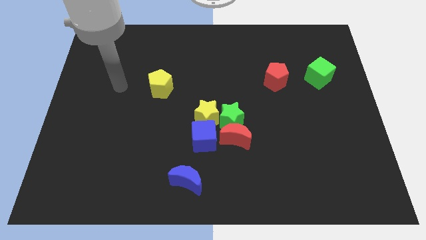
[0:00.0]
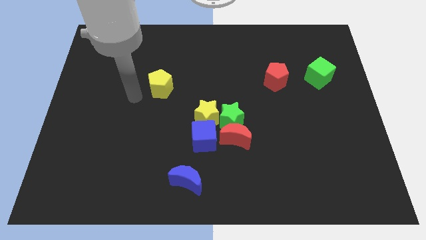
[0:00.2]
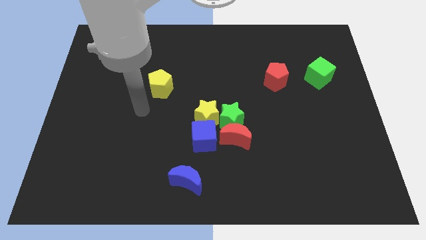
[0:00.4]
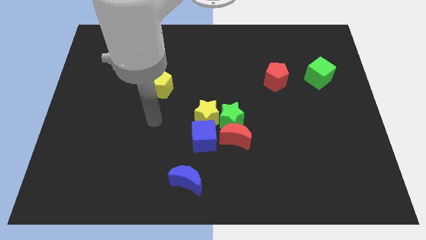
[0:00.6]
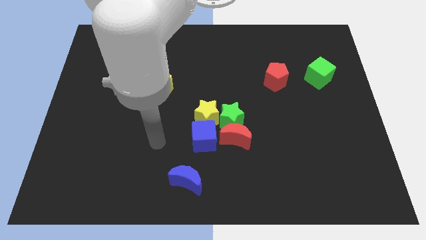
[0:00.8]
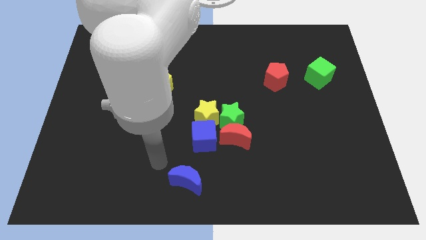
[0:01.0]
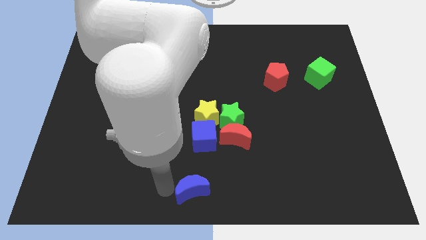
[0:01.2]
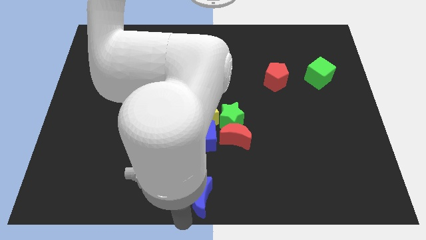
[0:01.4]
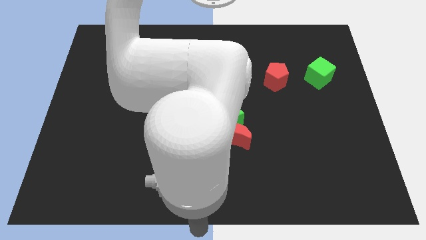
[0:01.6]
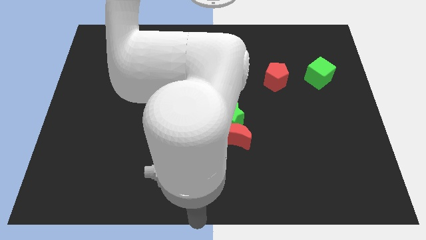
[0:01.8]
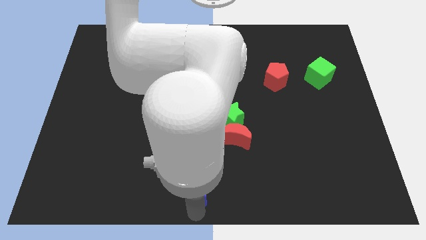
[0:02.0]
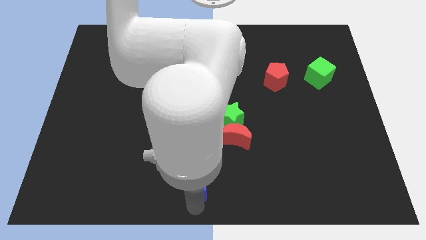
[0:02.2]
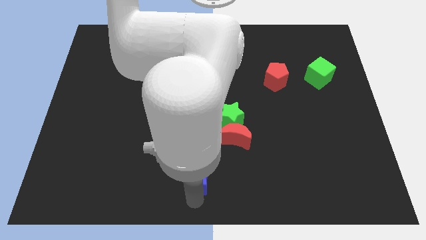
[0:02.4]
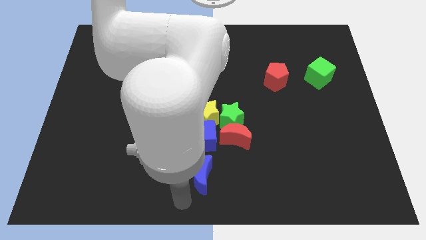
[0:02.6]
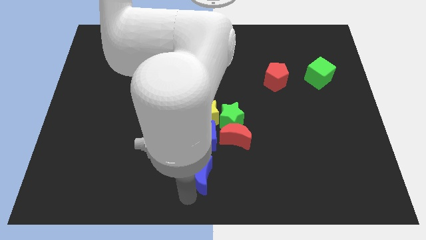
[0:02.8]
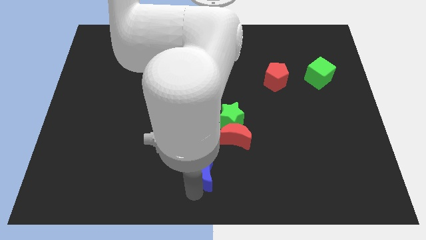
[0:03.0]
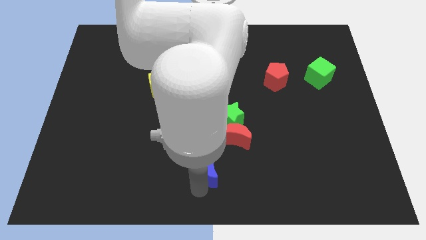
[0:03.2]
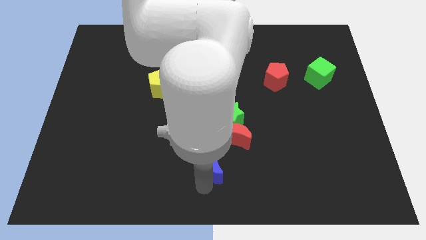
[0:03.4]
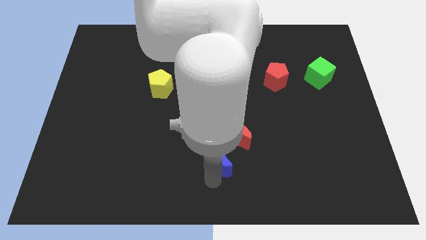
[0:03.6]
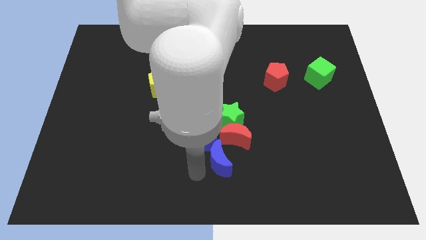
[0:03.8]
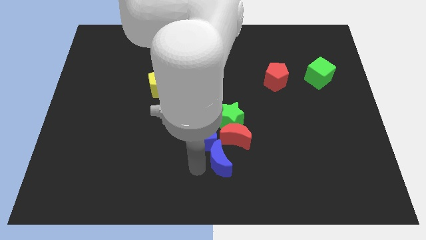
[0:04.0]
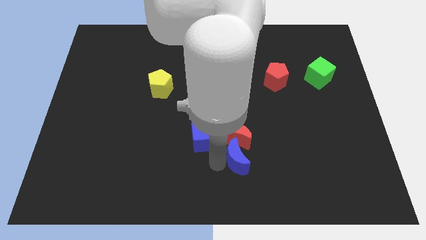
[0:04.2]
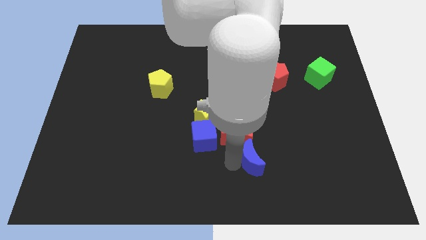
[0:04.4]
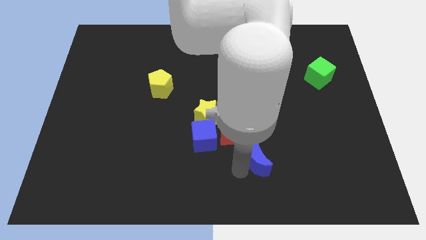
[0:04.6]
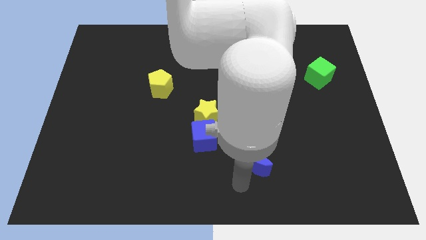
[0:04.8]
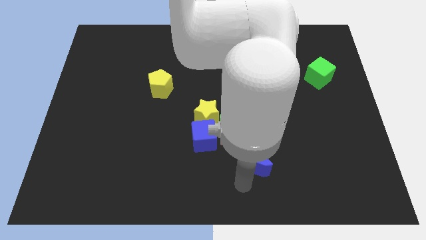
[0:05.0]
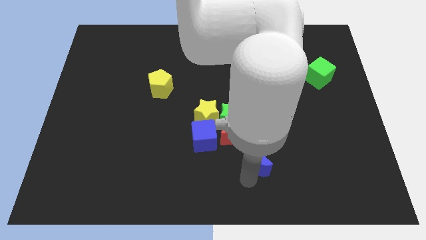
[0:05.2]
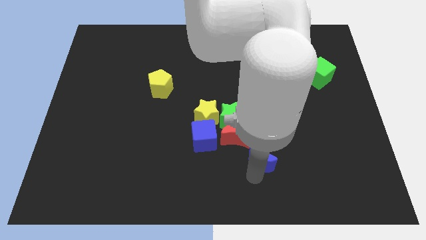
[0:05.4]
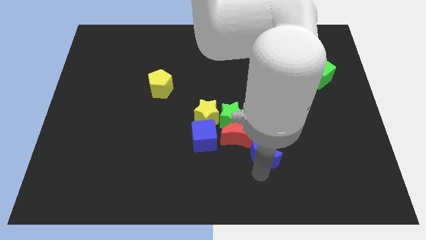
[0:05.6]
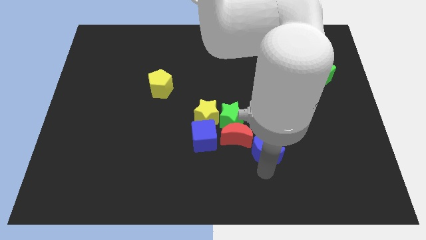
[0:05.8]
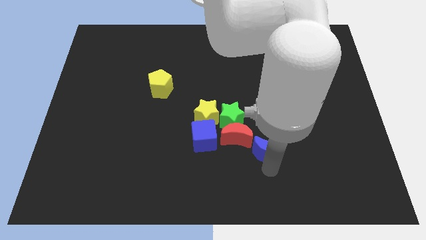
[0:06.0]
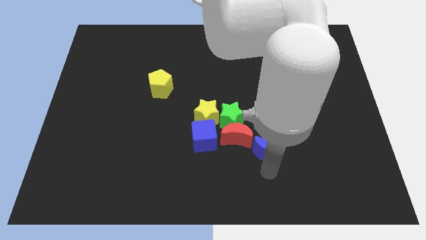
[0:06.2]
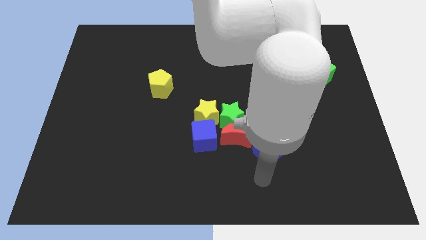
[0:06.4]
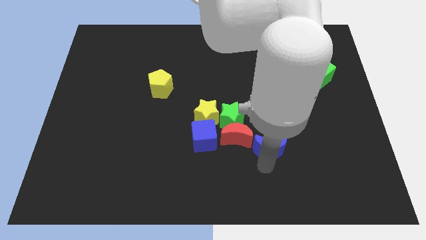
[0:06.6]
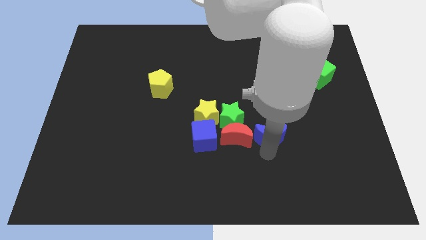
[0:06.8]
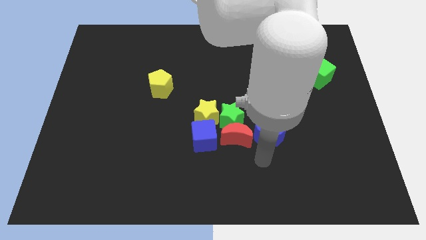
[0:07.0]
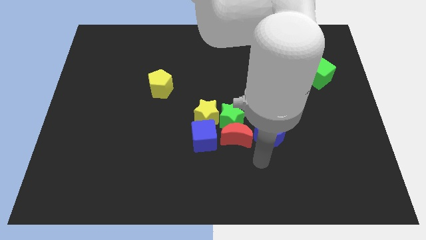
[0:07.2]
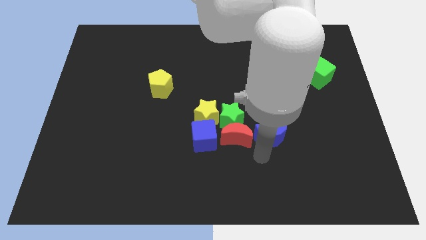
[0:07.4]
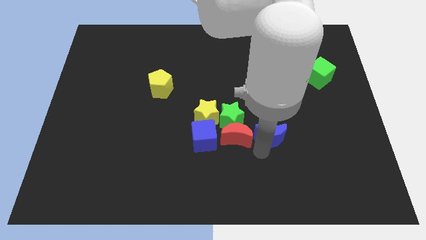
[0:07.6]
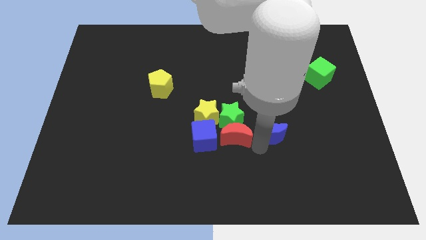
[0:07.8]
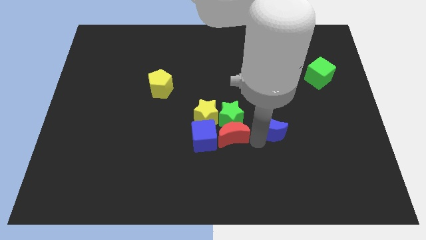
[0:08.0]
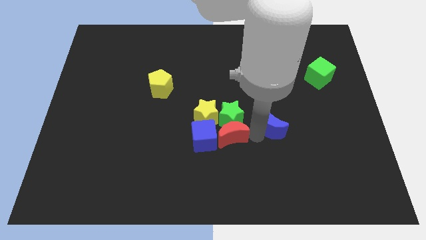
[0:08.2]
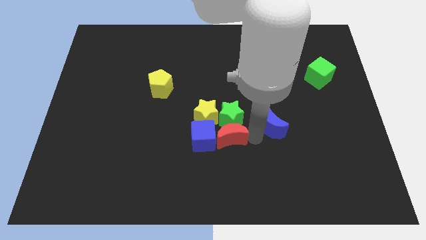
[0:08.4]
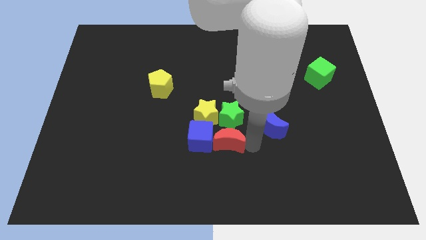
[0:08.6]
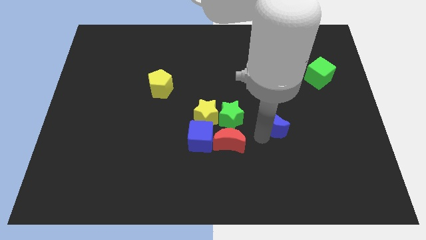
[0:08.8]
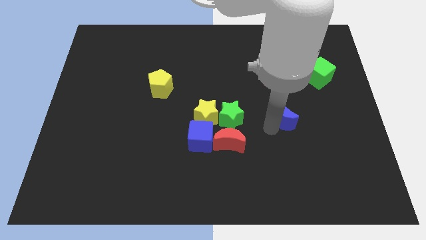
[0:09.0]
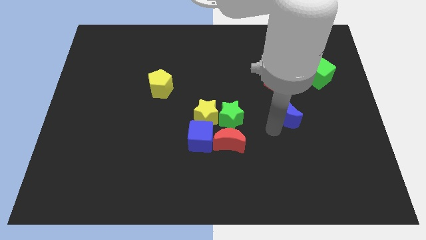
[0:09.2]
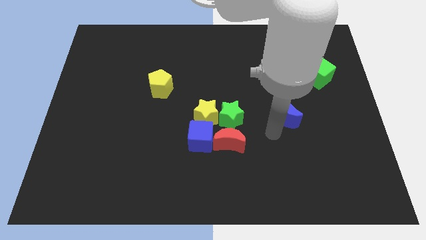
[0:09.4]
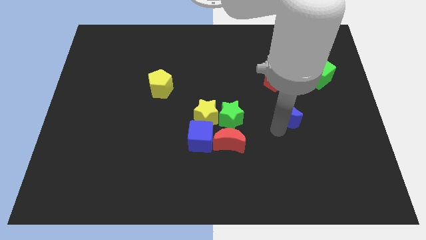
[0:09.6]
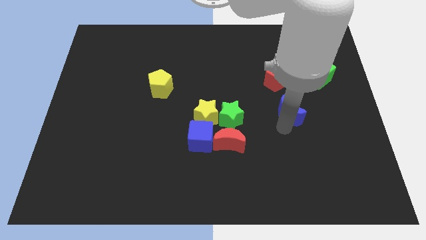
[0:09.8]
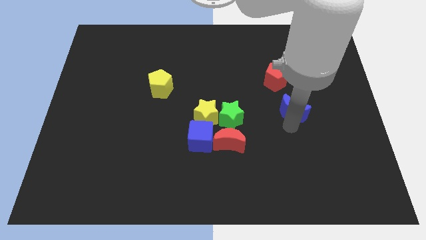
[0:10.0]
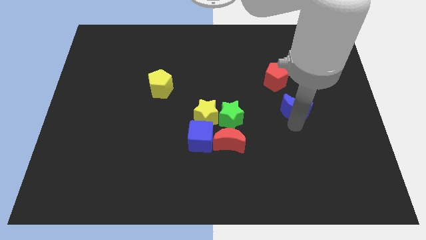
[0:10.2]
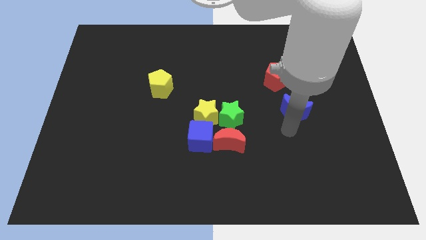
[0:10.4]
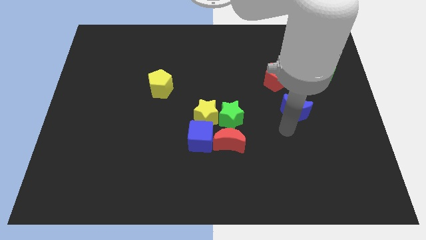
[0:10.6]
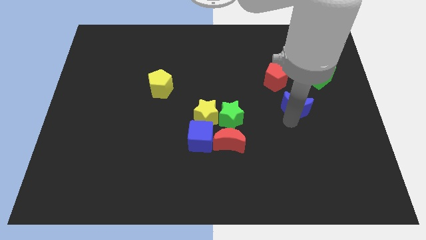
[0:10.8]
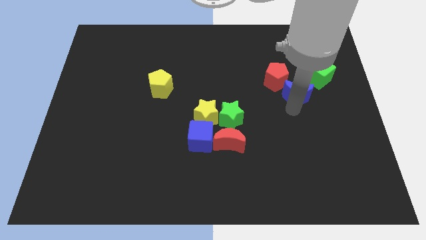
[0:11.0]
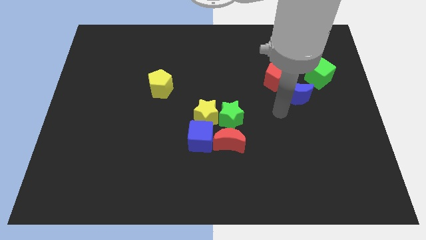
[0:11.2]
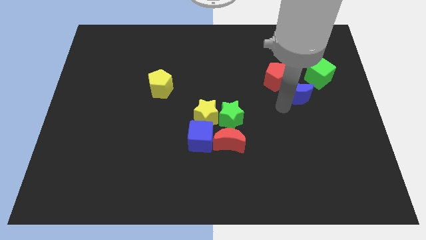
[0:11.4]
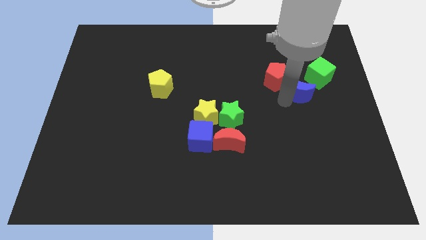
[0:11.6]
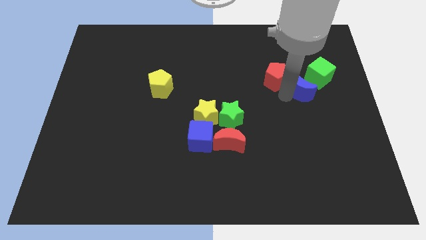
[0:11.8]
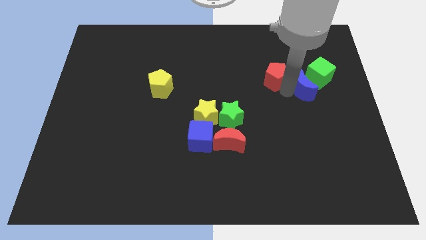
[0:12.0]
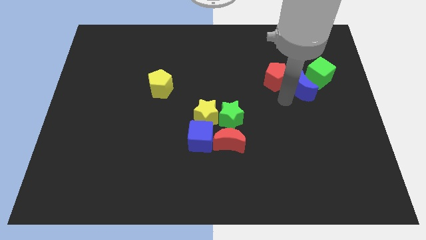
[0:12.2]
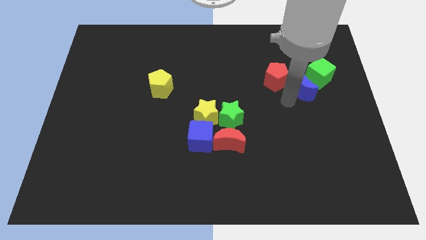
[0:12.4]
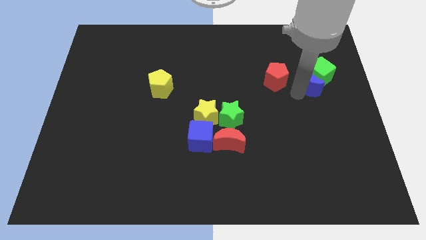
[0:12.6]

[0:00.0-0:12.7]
slide the blue moon next to the green cube

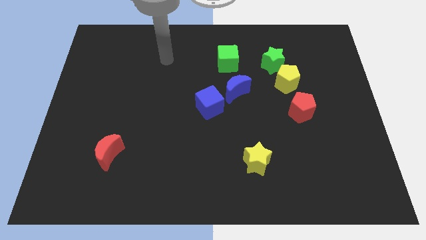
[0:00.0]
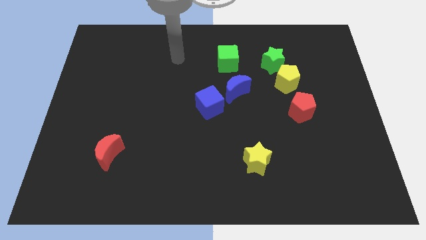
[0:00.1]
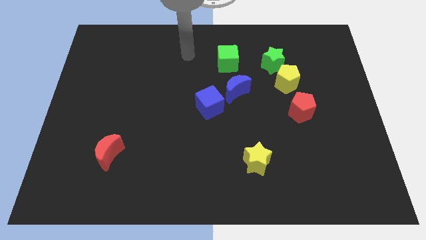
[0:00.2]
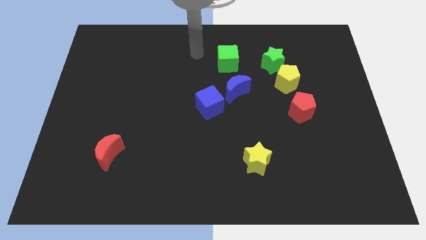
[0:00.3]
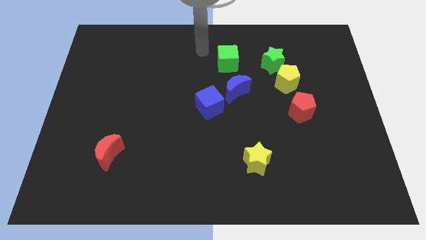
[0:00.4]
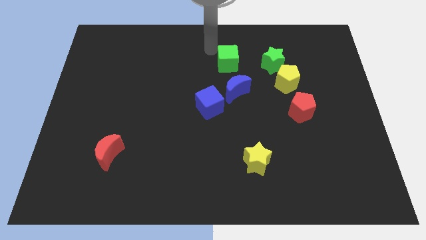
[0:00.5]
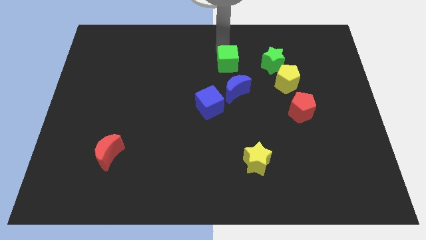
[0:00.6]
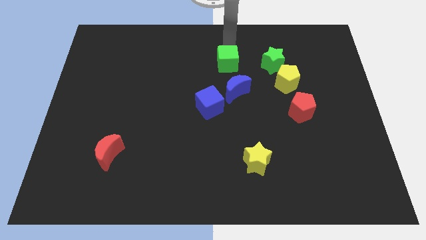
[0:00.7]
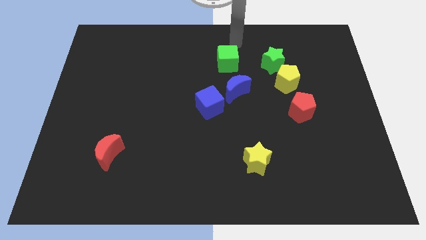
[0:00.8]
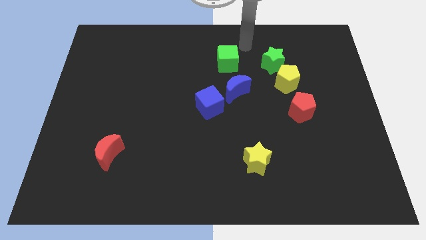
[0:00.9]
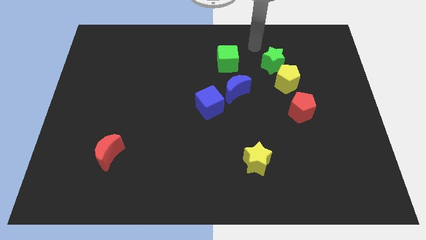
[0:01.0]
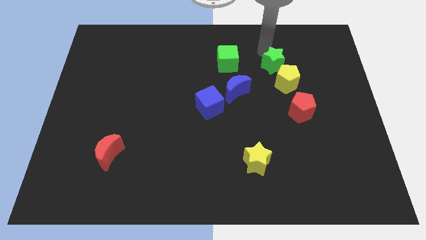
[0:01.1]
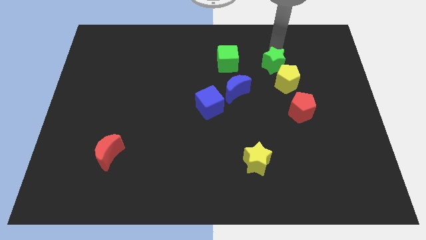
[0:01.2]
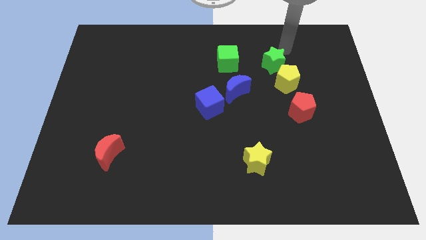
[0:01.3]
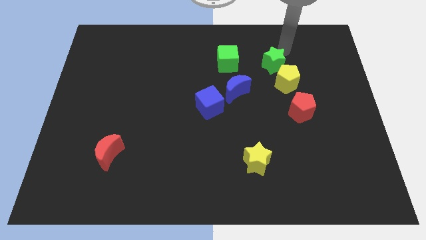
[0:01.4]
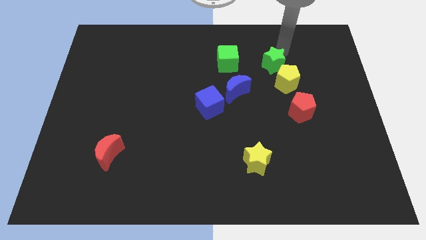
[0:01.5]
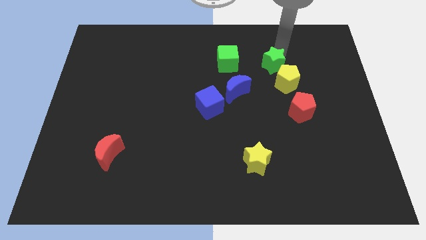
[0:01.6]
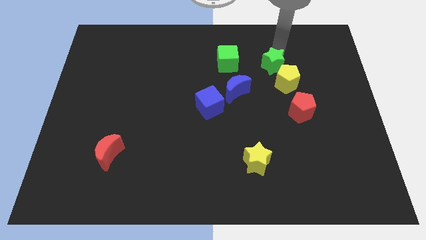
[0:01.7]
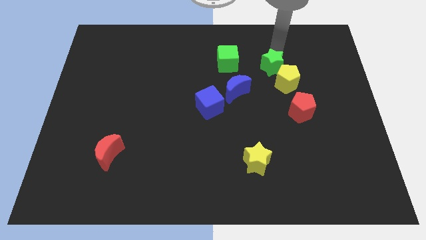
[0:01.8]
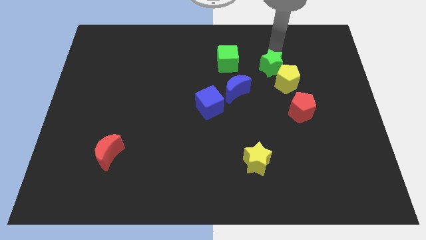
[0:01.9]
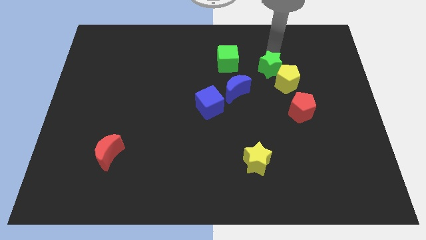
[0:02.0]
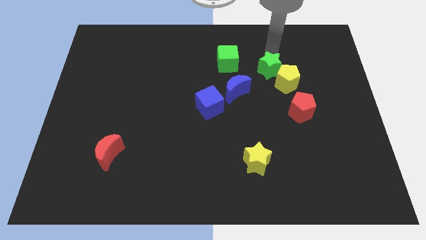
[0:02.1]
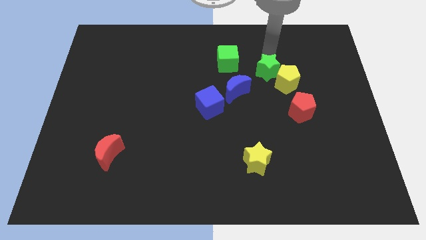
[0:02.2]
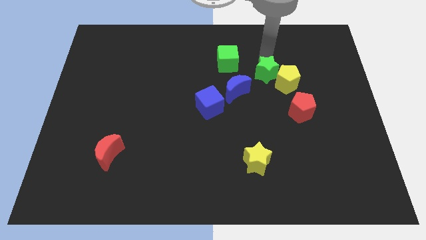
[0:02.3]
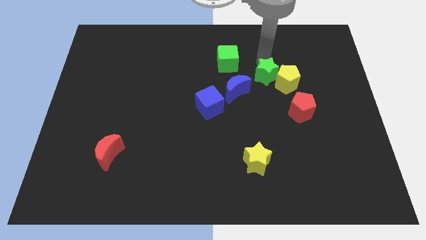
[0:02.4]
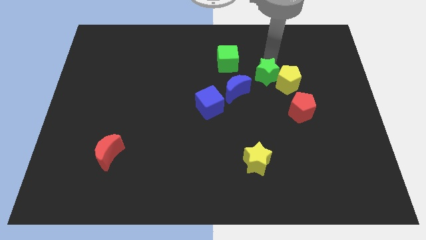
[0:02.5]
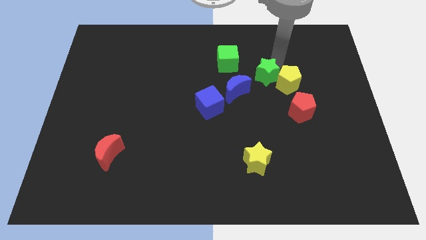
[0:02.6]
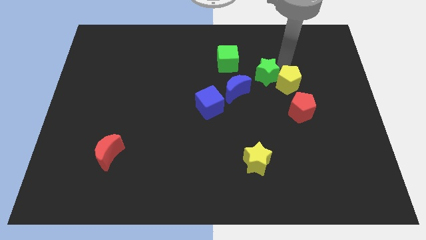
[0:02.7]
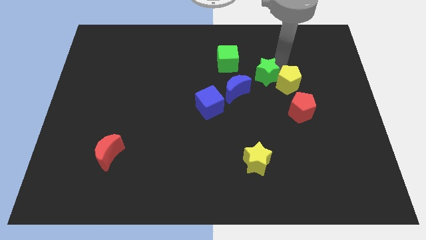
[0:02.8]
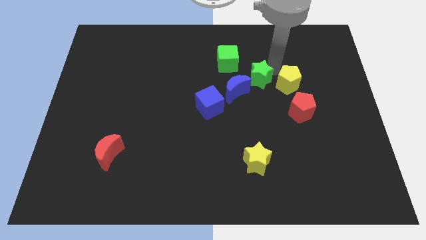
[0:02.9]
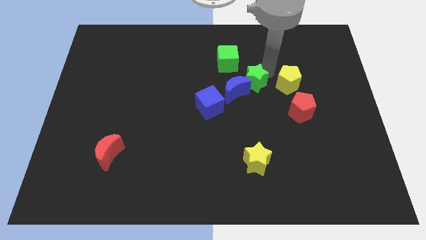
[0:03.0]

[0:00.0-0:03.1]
put the green star close to the blue moon
